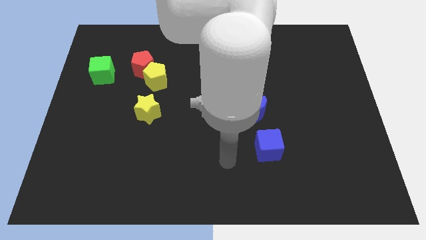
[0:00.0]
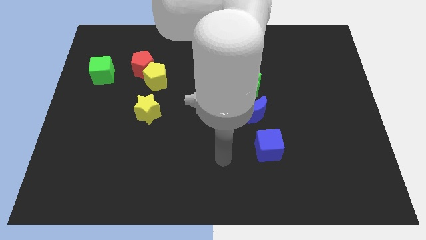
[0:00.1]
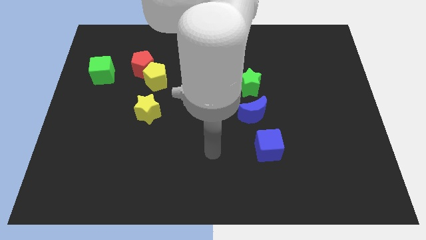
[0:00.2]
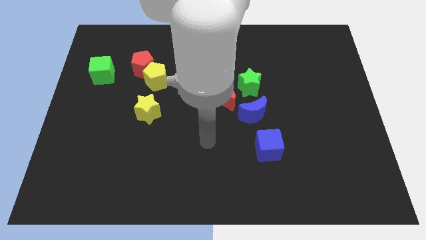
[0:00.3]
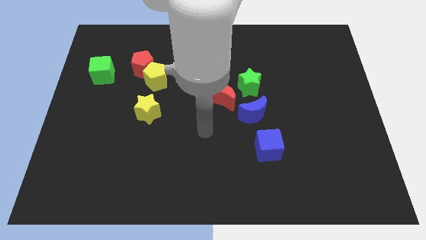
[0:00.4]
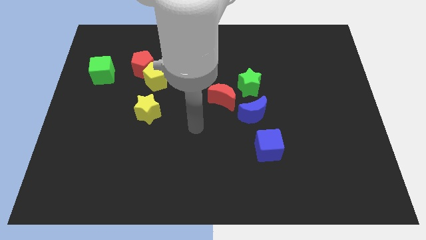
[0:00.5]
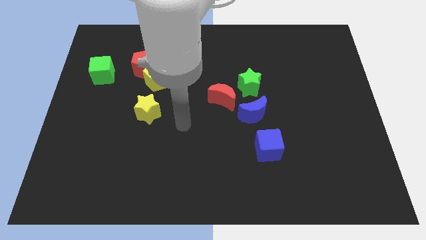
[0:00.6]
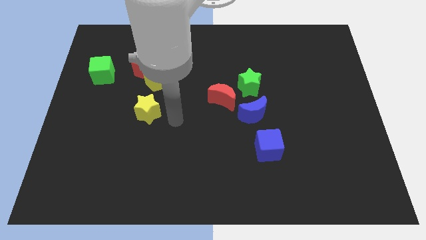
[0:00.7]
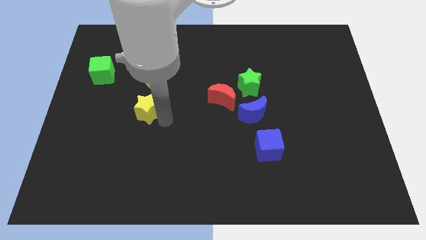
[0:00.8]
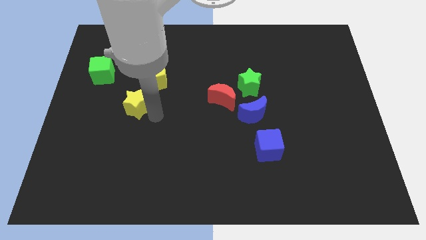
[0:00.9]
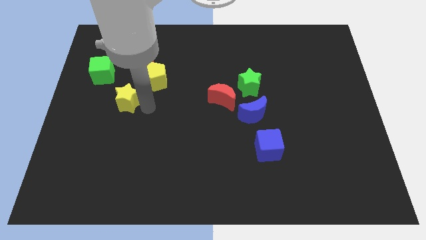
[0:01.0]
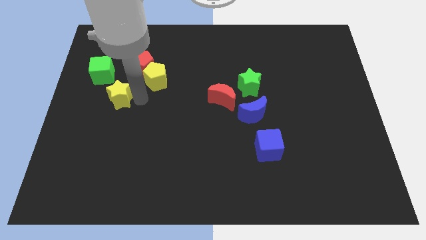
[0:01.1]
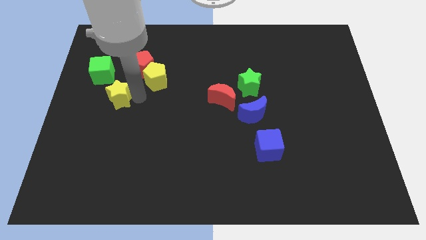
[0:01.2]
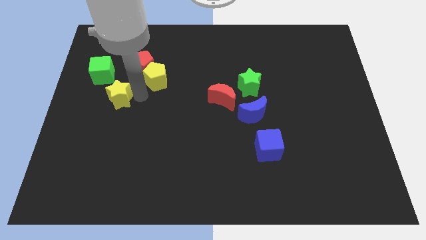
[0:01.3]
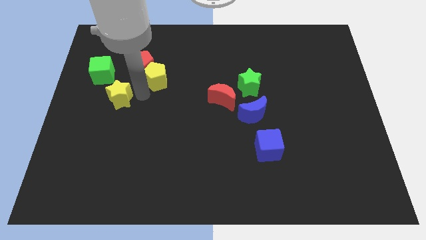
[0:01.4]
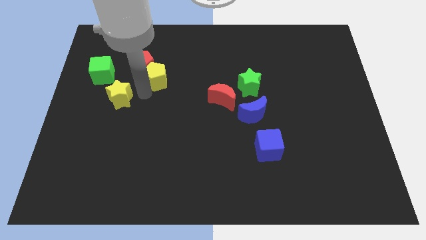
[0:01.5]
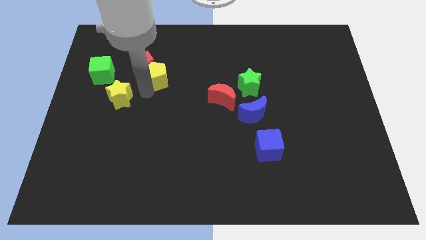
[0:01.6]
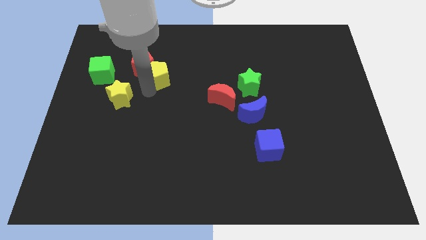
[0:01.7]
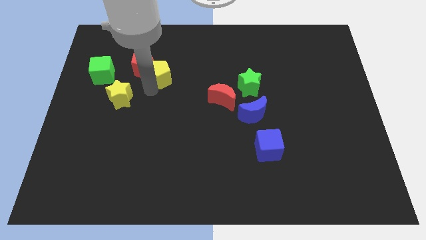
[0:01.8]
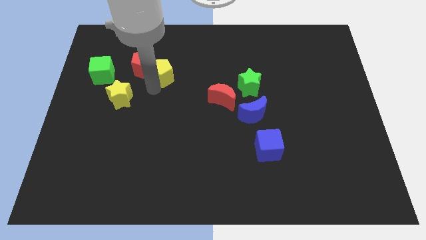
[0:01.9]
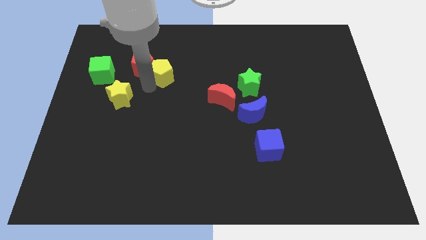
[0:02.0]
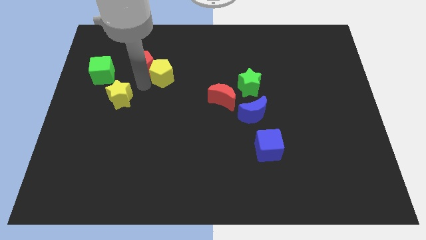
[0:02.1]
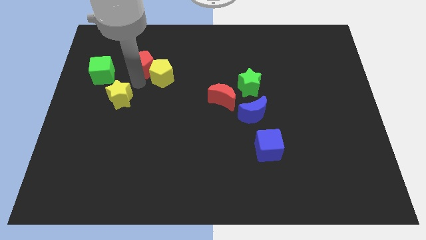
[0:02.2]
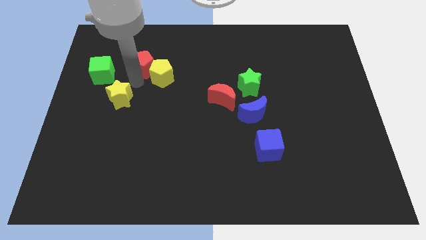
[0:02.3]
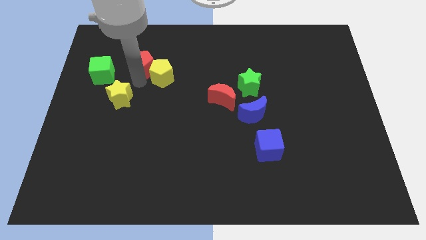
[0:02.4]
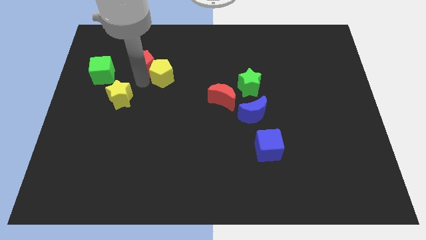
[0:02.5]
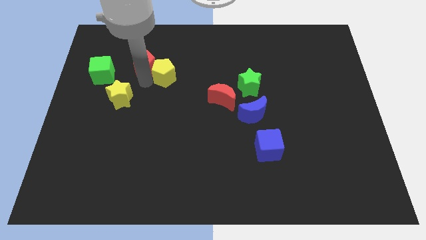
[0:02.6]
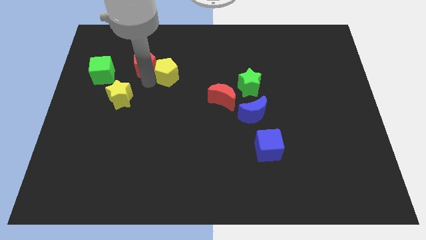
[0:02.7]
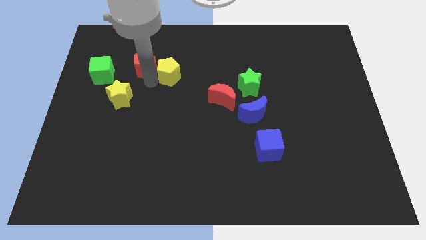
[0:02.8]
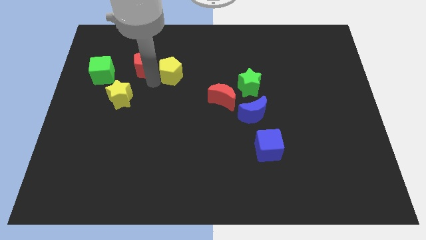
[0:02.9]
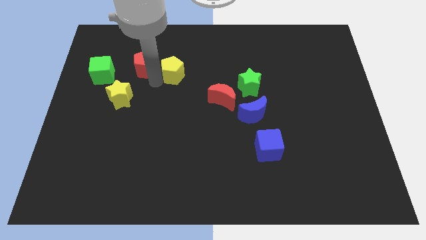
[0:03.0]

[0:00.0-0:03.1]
separate the yellow pentagon from the red pentagon and yellow star

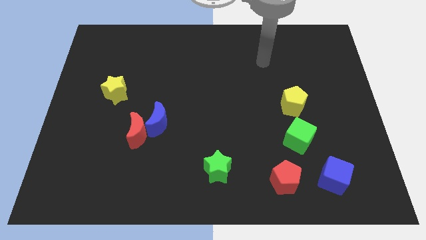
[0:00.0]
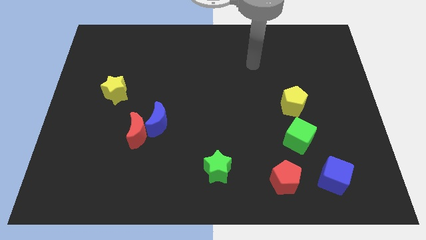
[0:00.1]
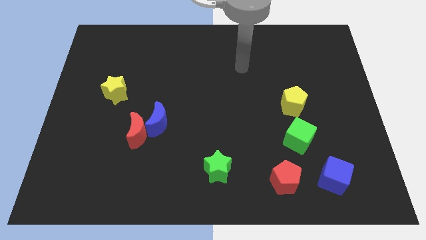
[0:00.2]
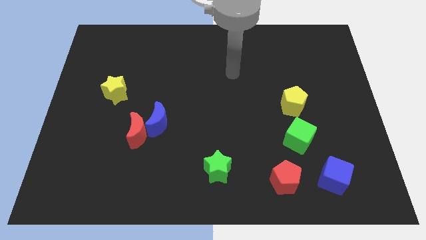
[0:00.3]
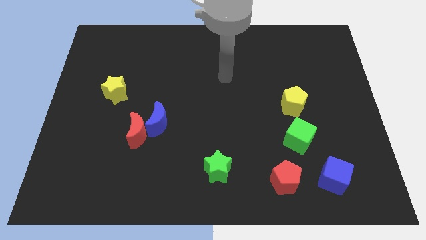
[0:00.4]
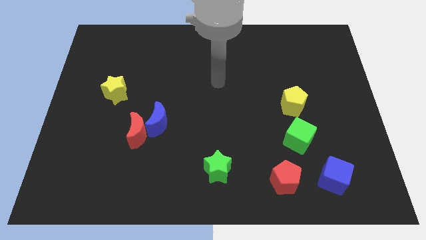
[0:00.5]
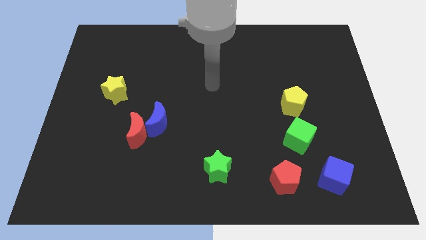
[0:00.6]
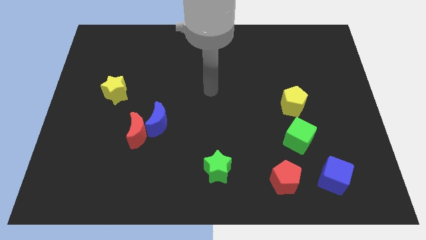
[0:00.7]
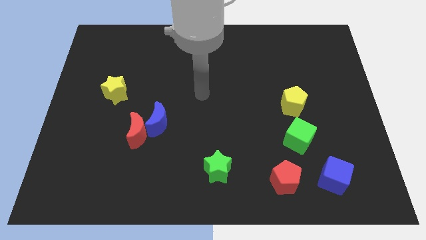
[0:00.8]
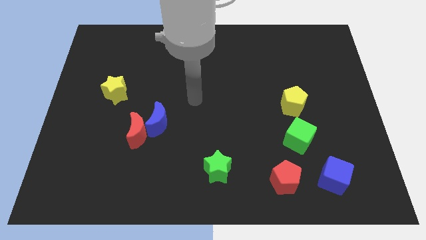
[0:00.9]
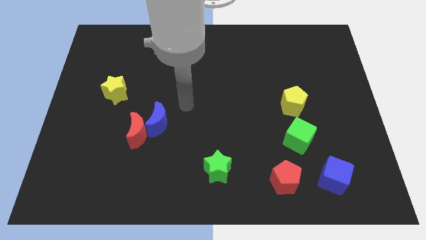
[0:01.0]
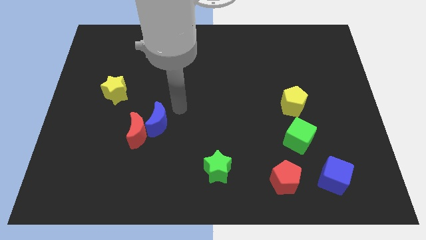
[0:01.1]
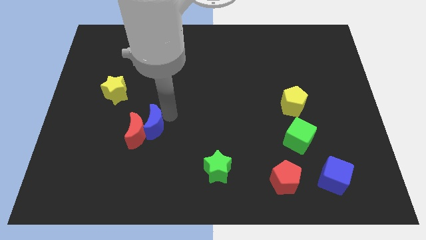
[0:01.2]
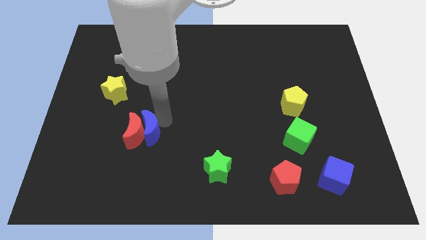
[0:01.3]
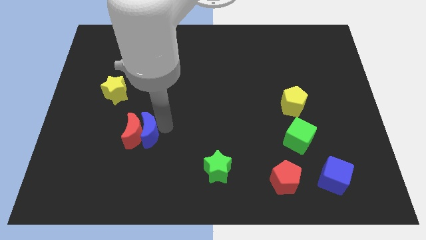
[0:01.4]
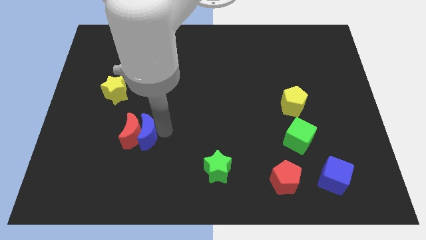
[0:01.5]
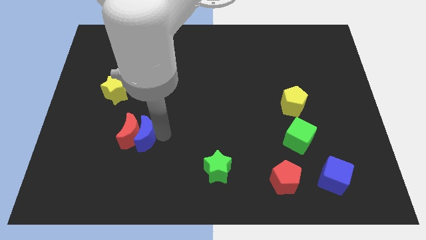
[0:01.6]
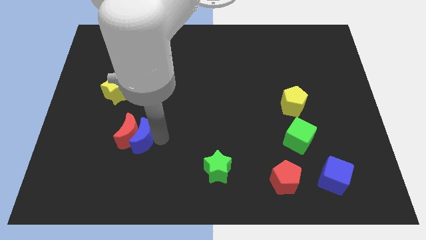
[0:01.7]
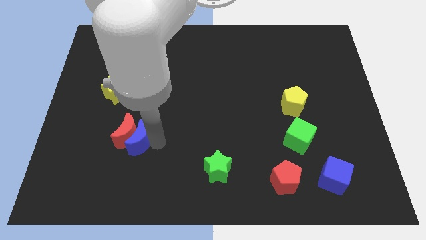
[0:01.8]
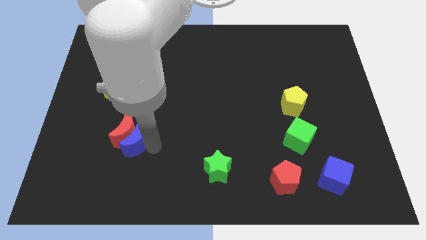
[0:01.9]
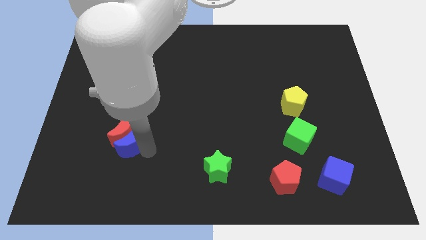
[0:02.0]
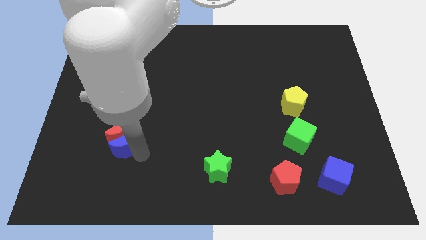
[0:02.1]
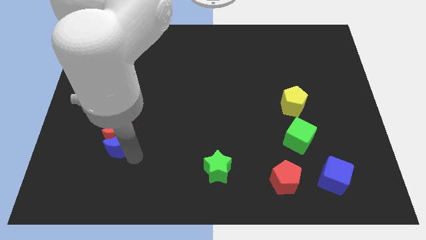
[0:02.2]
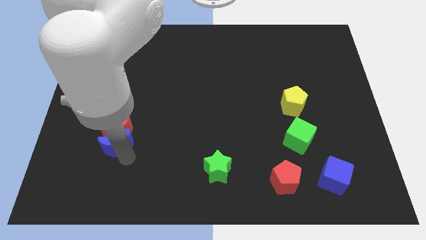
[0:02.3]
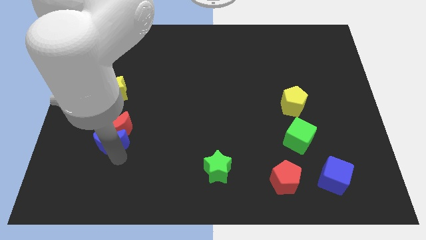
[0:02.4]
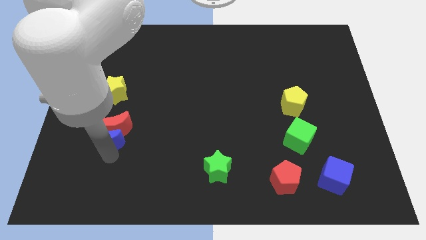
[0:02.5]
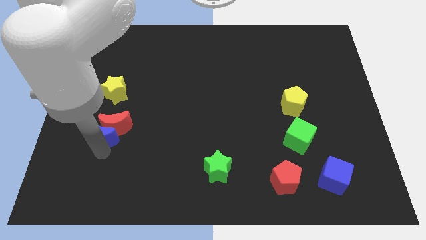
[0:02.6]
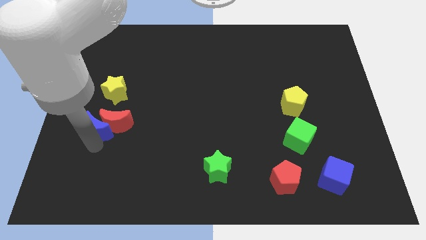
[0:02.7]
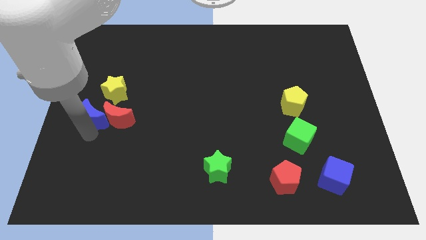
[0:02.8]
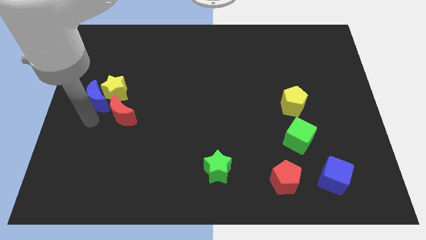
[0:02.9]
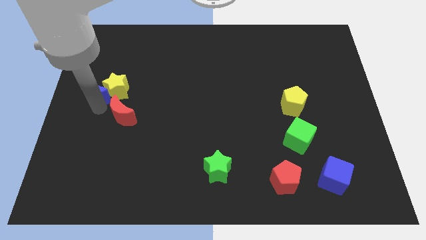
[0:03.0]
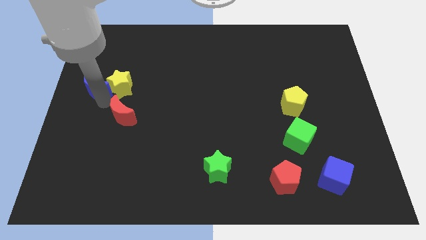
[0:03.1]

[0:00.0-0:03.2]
pull the red moon apart from the blue moon

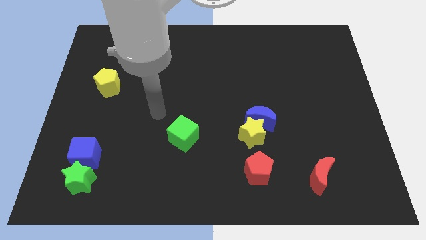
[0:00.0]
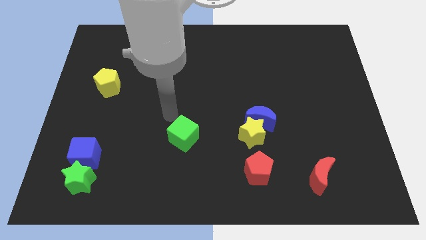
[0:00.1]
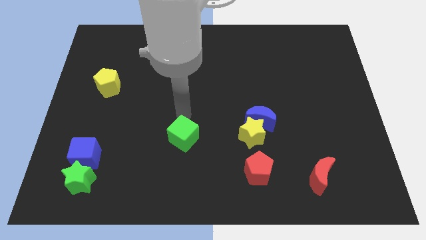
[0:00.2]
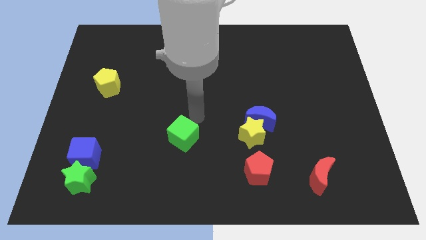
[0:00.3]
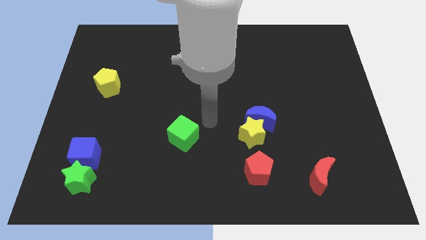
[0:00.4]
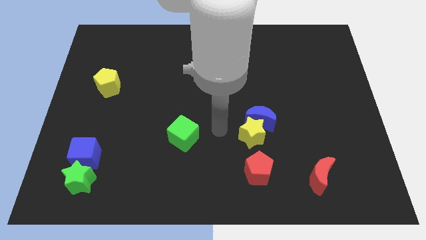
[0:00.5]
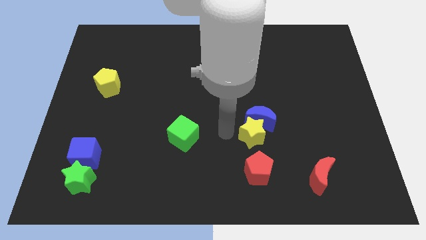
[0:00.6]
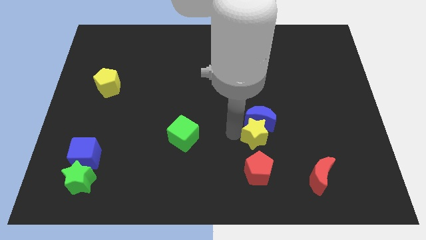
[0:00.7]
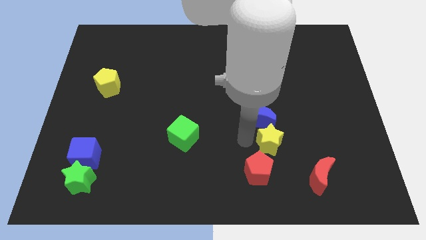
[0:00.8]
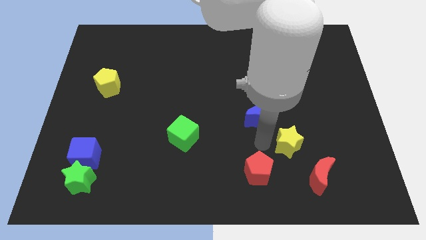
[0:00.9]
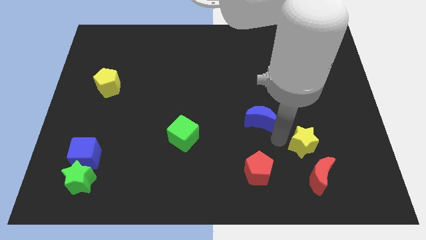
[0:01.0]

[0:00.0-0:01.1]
move the blue moon away from the yellow star

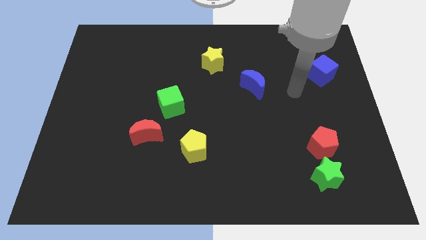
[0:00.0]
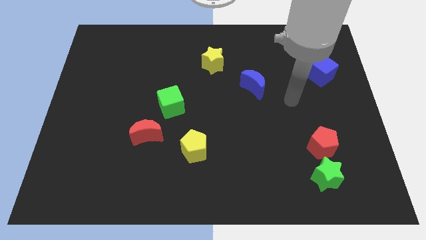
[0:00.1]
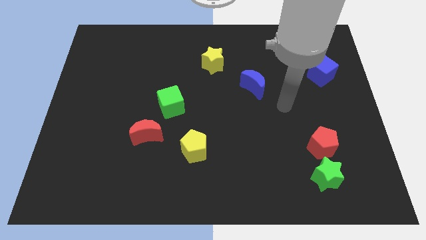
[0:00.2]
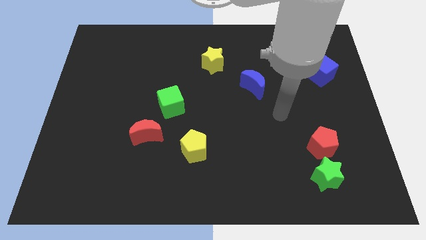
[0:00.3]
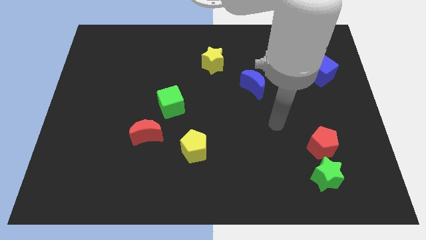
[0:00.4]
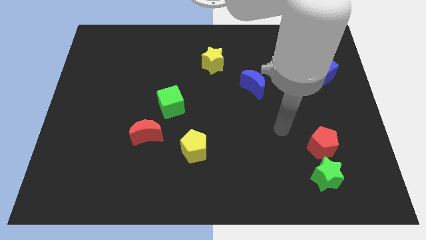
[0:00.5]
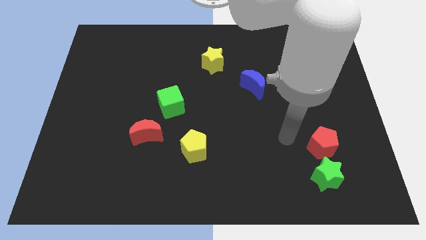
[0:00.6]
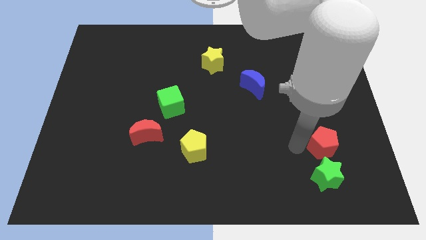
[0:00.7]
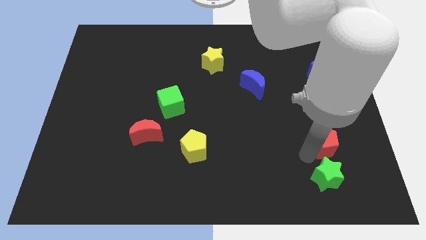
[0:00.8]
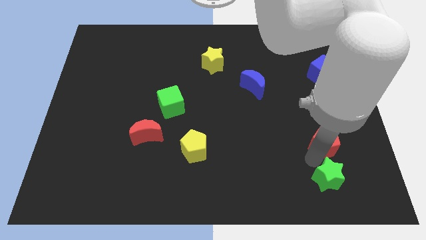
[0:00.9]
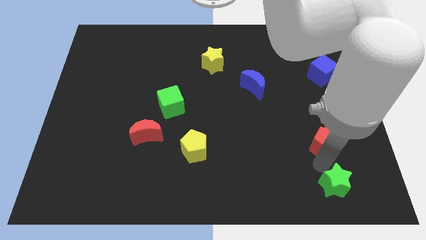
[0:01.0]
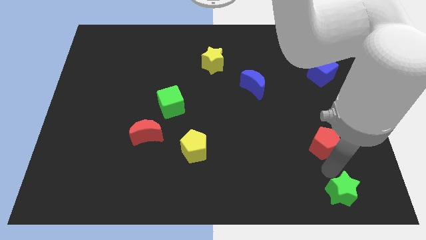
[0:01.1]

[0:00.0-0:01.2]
pull the red pentagon apart from the green star

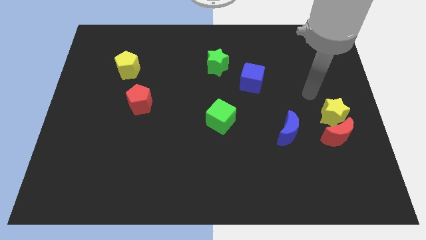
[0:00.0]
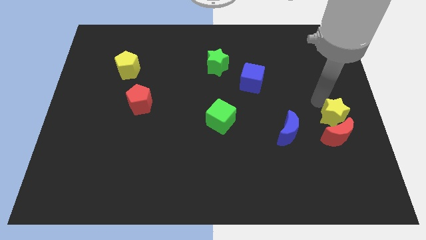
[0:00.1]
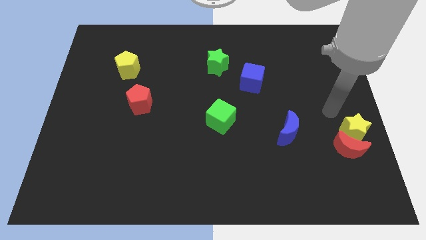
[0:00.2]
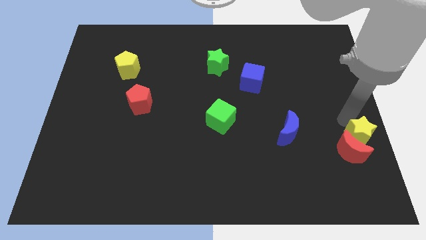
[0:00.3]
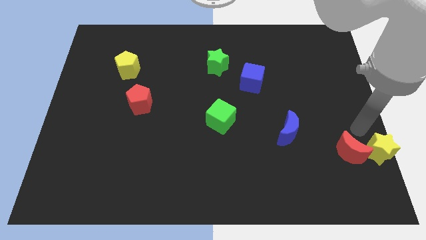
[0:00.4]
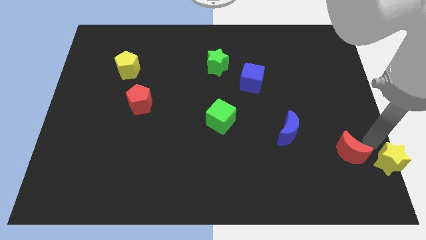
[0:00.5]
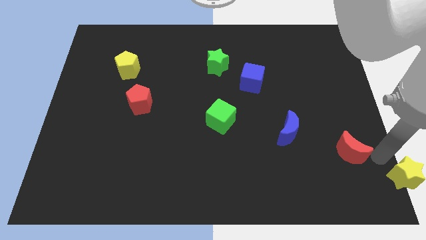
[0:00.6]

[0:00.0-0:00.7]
separate the red moon from the yellow star

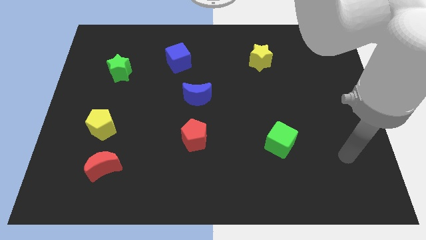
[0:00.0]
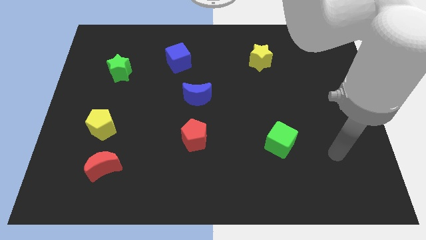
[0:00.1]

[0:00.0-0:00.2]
pull the red moon apart from the yellow pentagon
